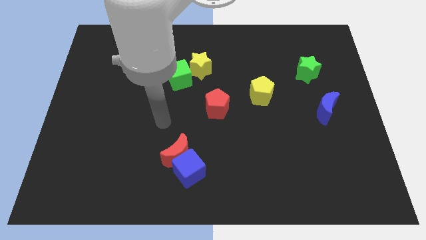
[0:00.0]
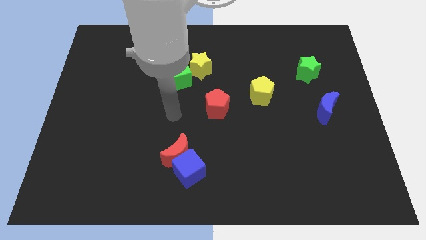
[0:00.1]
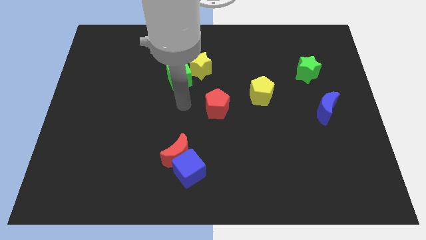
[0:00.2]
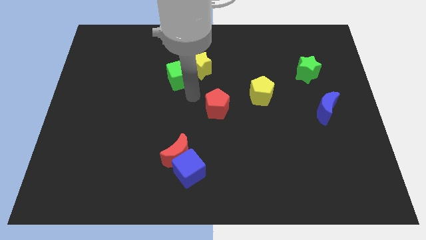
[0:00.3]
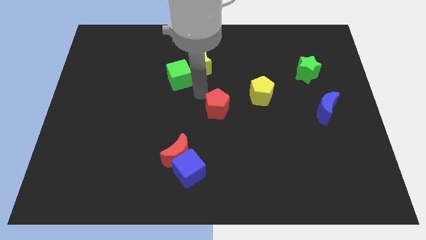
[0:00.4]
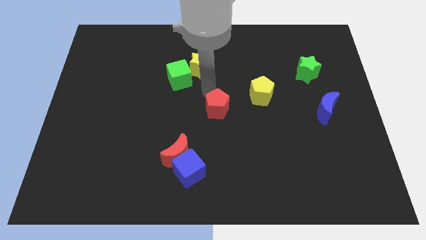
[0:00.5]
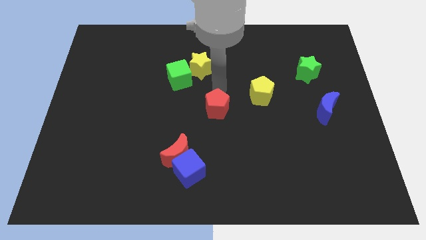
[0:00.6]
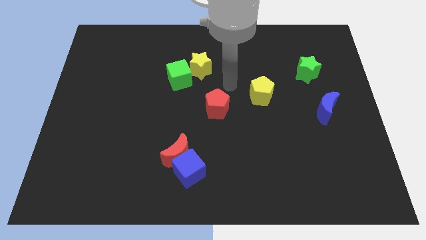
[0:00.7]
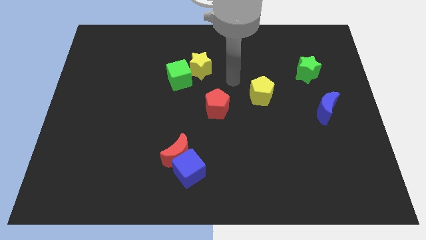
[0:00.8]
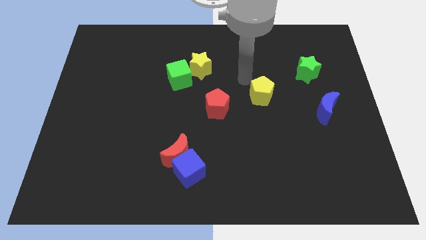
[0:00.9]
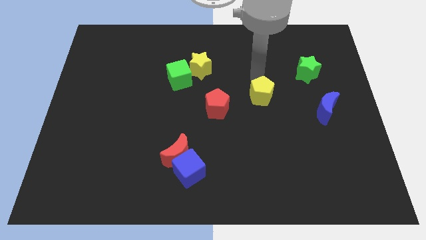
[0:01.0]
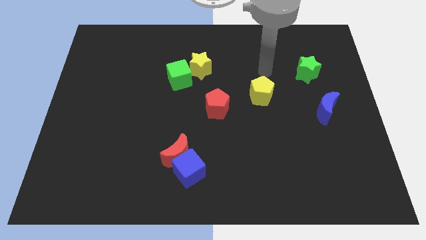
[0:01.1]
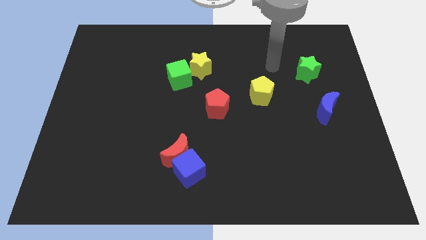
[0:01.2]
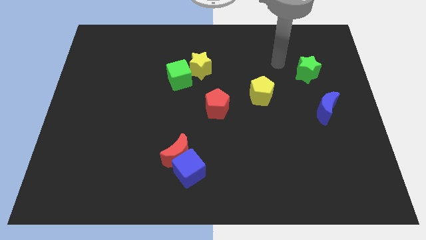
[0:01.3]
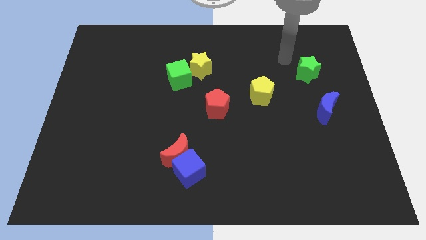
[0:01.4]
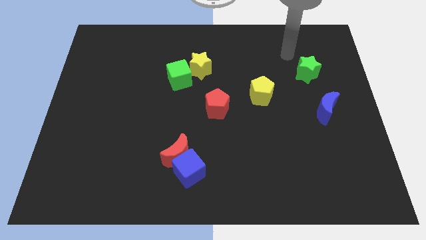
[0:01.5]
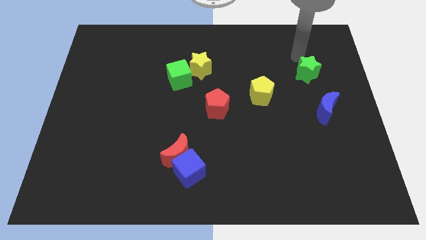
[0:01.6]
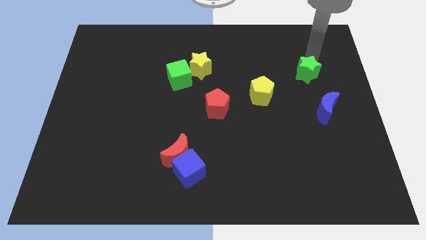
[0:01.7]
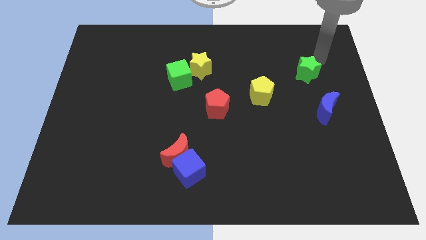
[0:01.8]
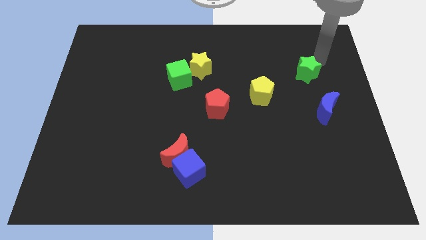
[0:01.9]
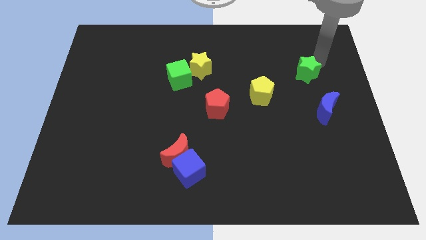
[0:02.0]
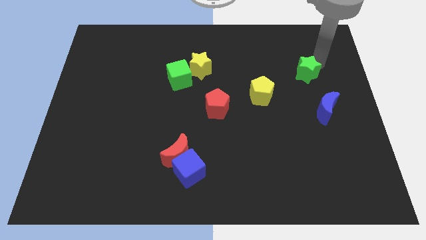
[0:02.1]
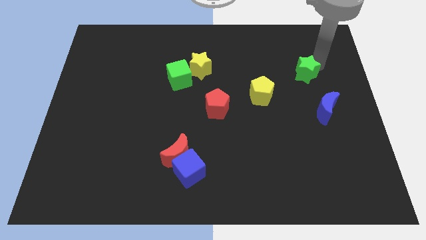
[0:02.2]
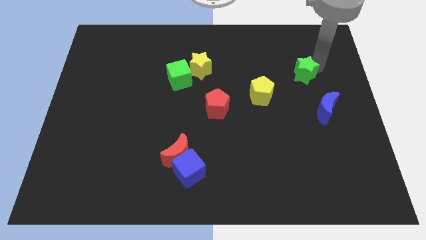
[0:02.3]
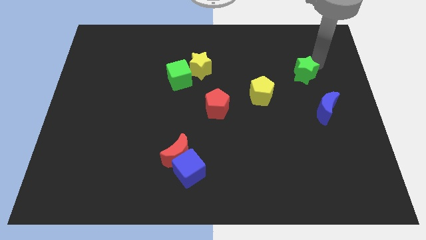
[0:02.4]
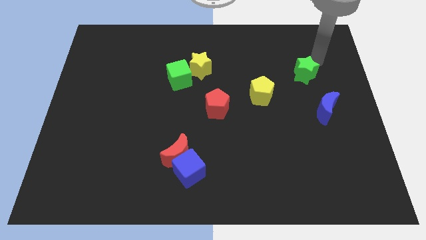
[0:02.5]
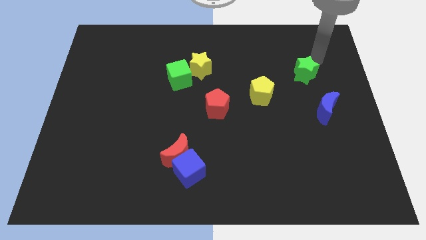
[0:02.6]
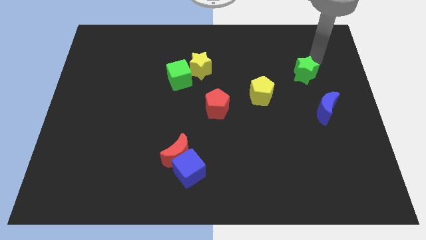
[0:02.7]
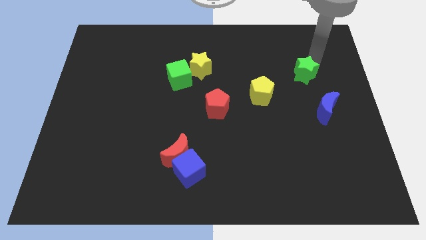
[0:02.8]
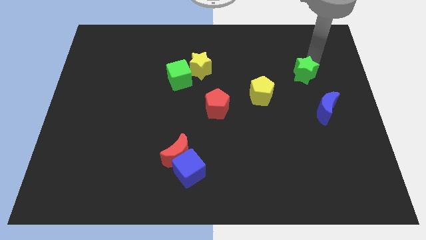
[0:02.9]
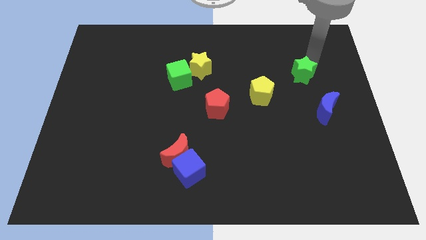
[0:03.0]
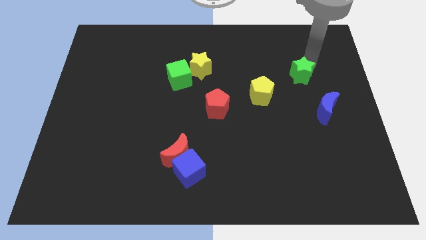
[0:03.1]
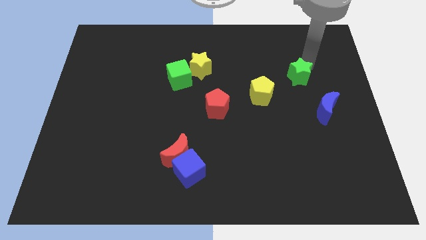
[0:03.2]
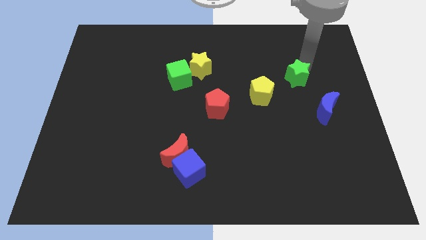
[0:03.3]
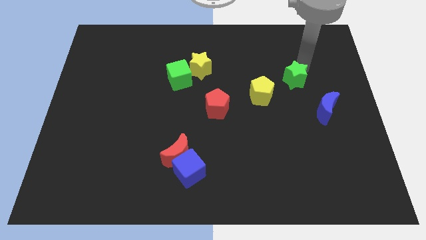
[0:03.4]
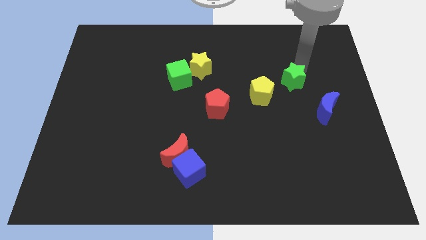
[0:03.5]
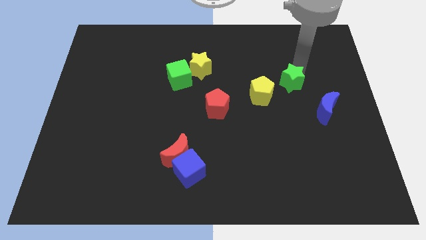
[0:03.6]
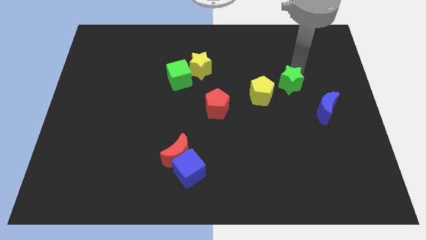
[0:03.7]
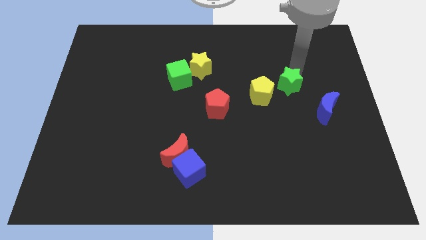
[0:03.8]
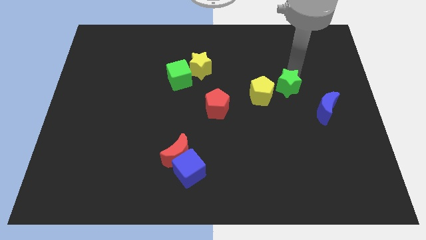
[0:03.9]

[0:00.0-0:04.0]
slightly push the green star downwards and left

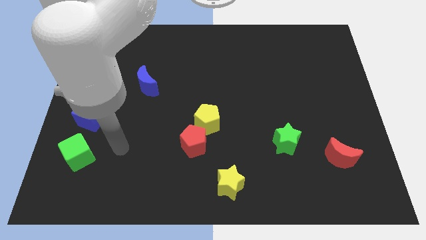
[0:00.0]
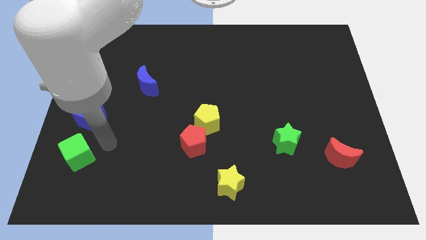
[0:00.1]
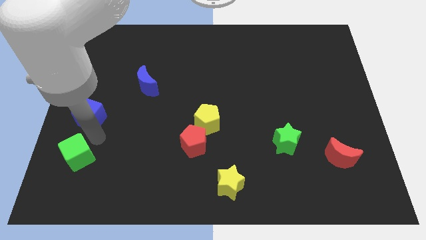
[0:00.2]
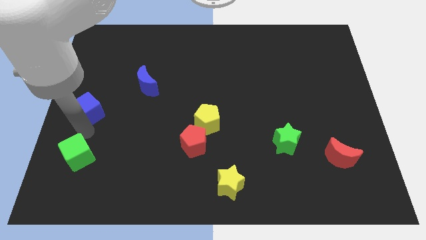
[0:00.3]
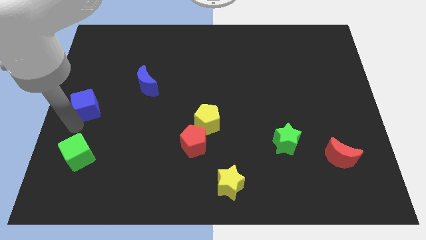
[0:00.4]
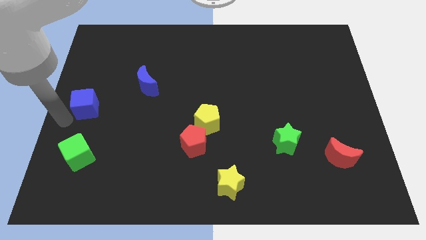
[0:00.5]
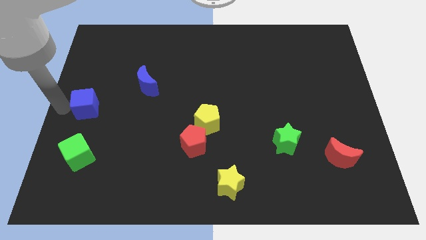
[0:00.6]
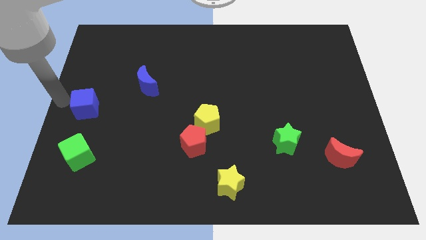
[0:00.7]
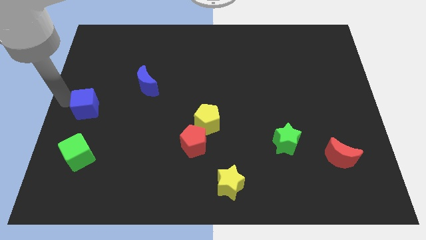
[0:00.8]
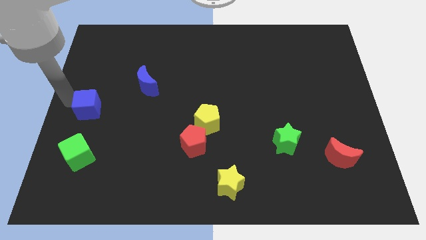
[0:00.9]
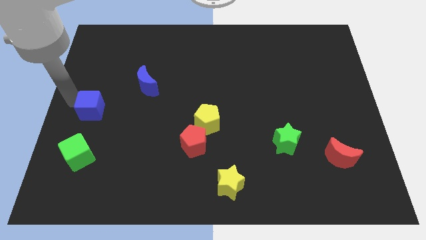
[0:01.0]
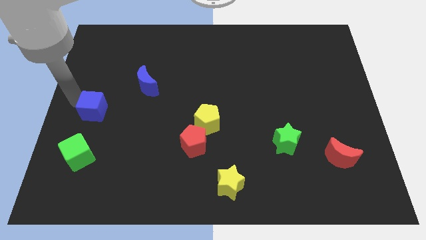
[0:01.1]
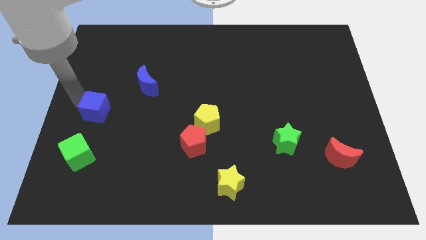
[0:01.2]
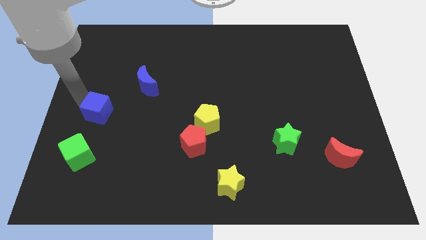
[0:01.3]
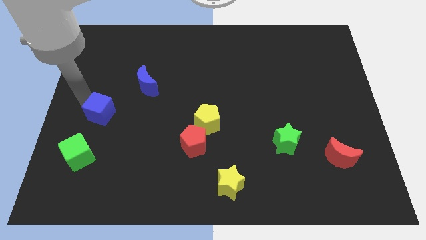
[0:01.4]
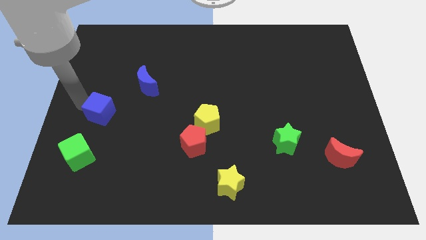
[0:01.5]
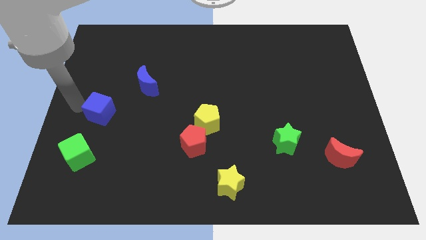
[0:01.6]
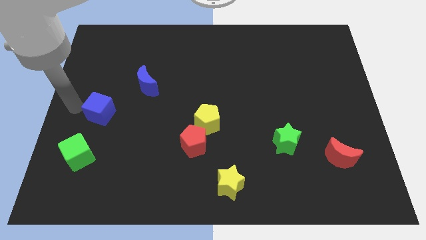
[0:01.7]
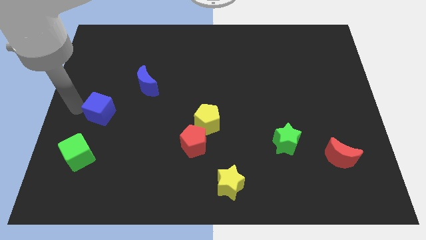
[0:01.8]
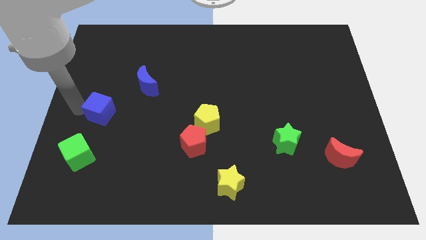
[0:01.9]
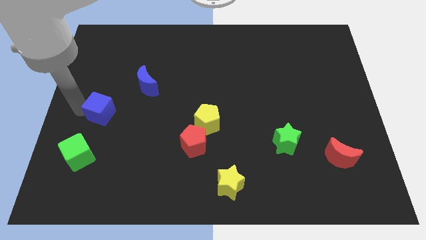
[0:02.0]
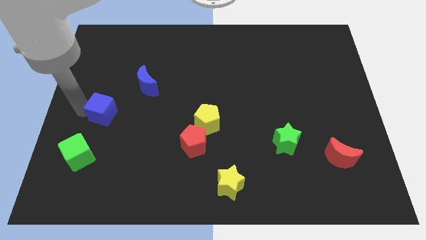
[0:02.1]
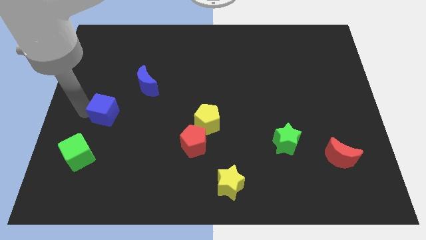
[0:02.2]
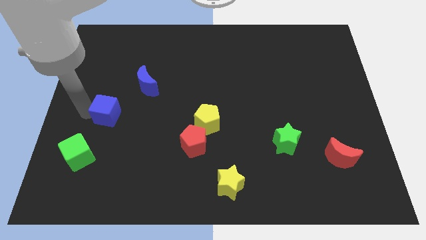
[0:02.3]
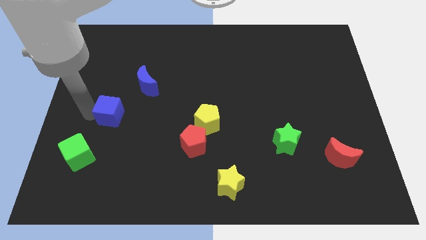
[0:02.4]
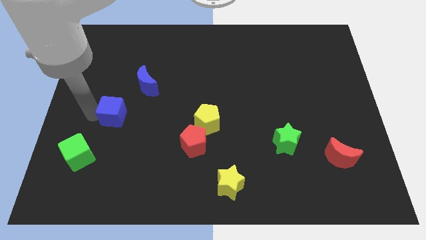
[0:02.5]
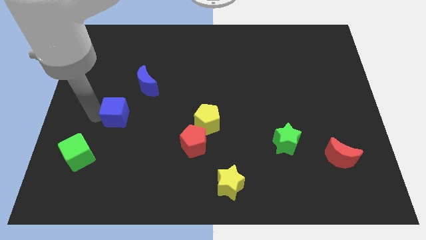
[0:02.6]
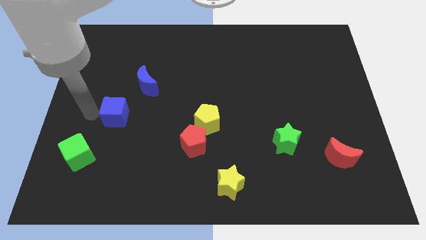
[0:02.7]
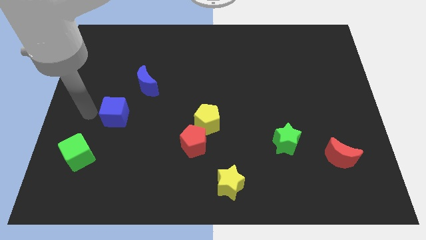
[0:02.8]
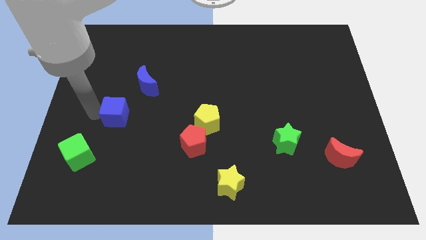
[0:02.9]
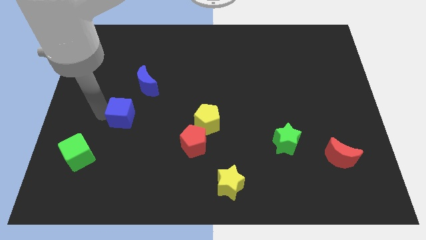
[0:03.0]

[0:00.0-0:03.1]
slightly push the blue cube to the right

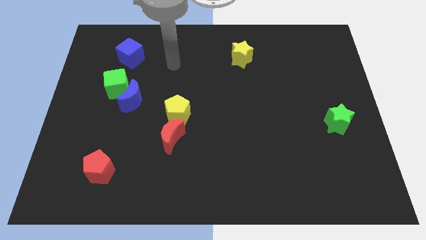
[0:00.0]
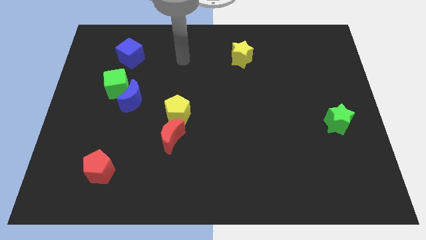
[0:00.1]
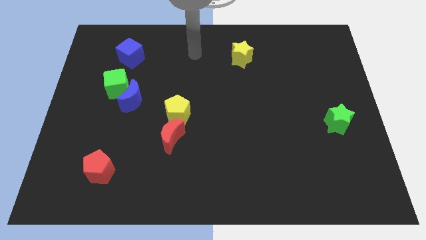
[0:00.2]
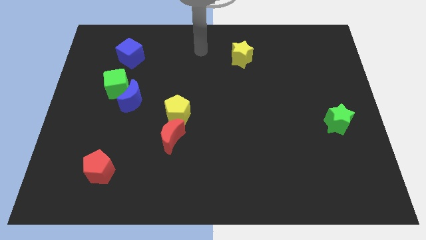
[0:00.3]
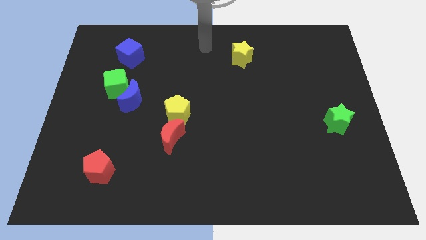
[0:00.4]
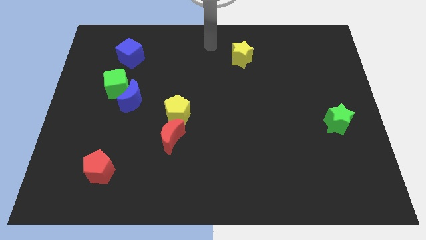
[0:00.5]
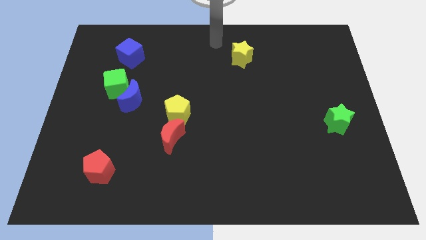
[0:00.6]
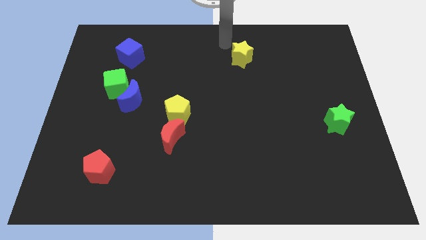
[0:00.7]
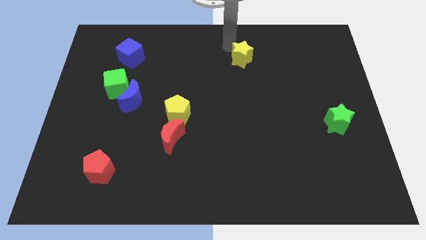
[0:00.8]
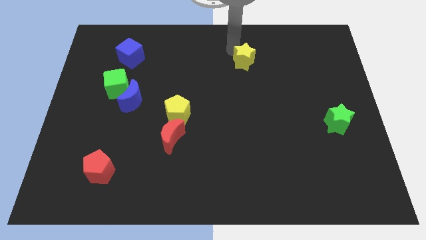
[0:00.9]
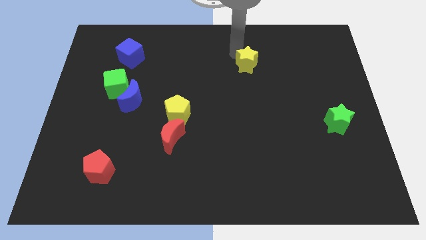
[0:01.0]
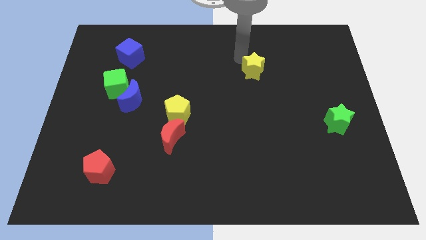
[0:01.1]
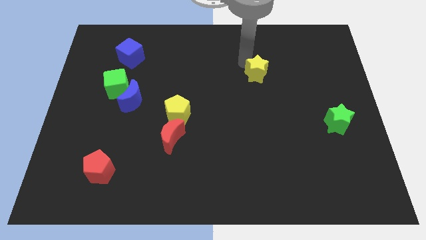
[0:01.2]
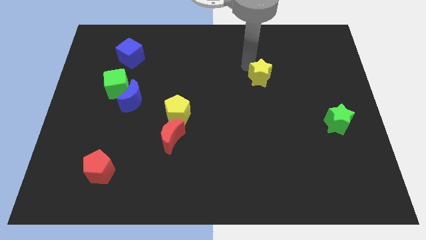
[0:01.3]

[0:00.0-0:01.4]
move the yellow star a little bit downwards and to the right diagonally
